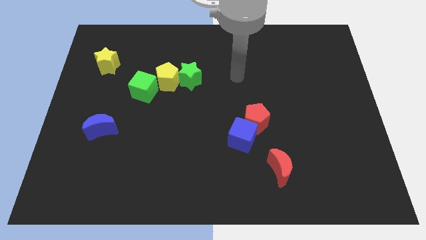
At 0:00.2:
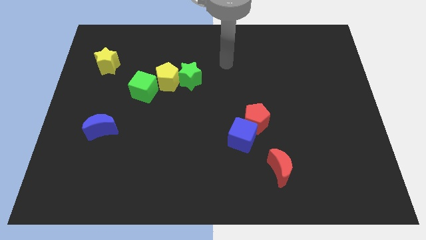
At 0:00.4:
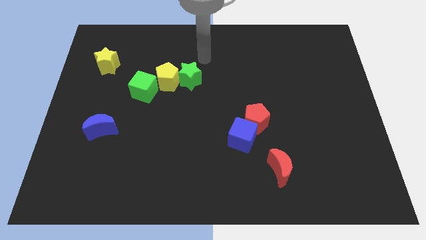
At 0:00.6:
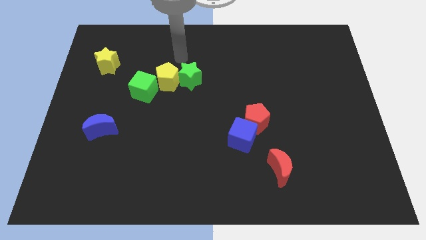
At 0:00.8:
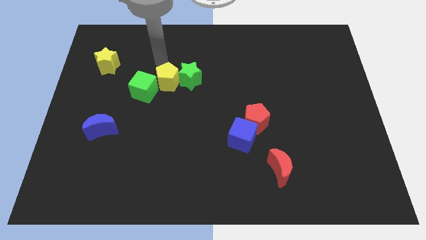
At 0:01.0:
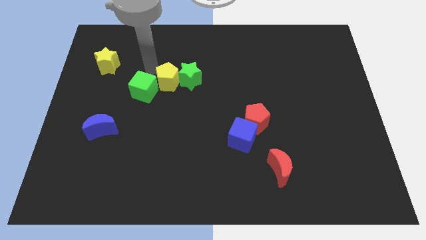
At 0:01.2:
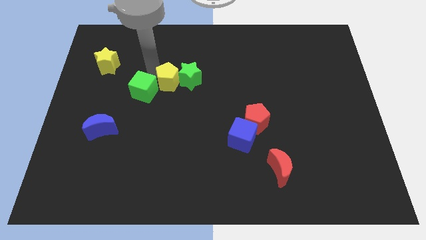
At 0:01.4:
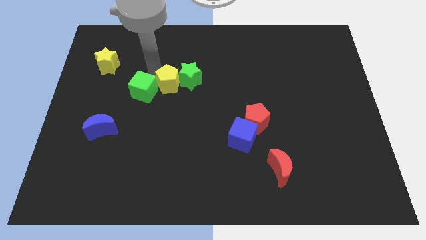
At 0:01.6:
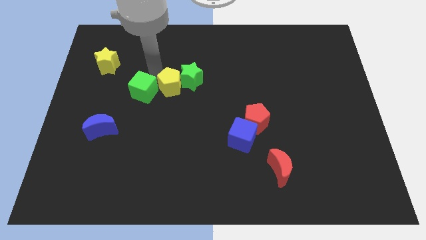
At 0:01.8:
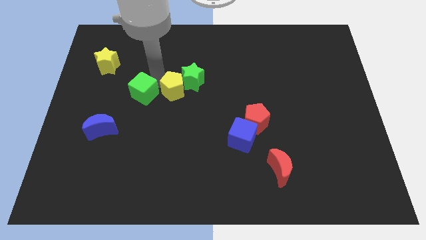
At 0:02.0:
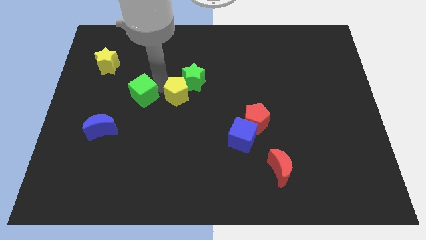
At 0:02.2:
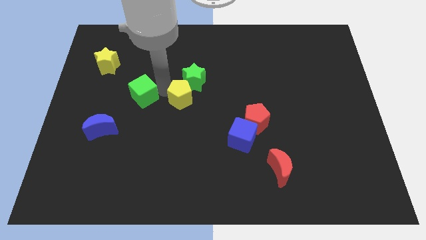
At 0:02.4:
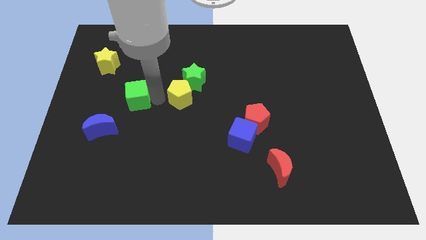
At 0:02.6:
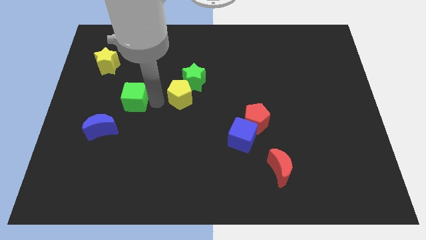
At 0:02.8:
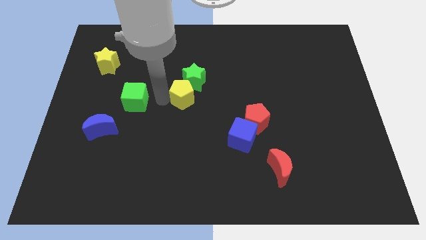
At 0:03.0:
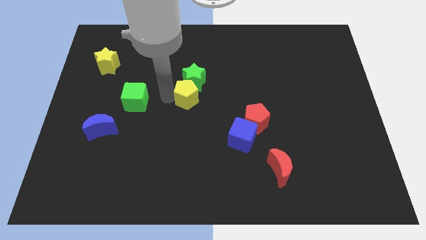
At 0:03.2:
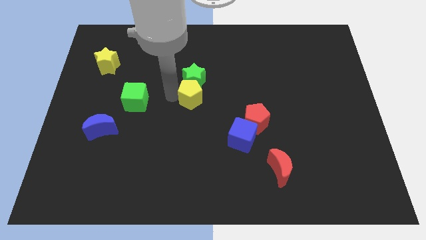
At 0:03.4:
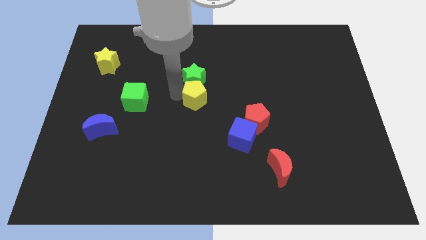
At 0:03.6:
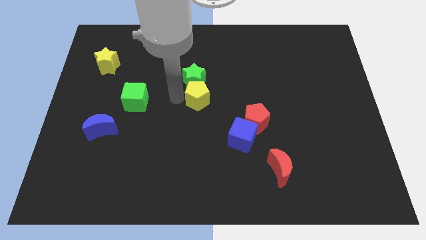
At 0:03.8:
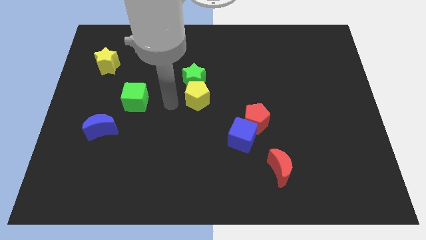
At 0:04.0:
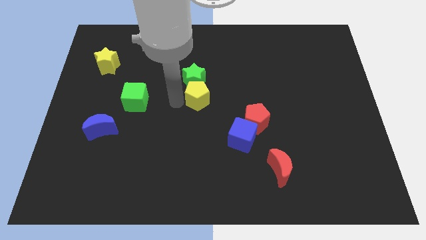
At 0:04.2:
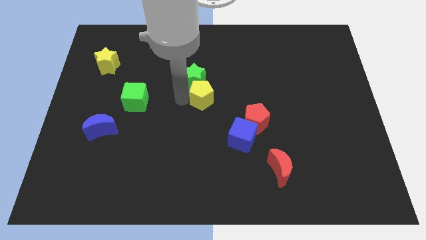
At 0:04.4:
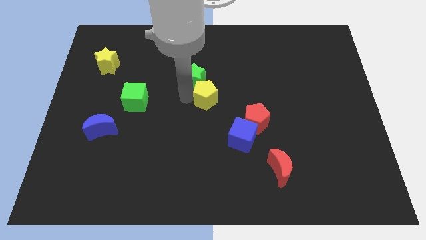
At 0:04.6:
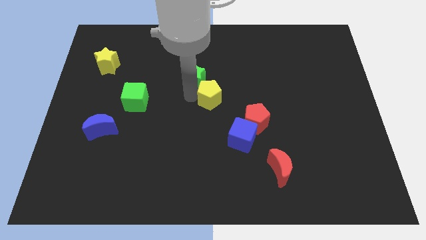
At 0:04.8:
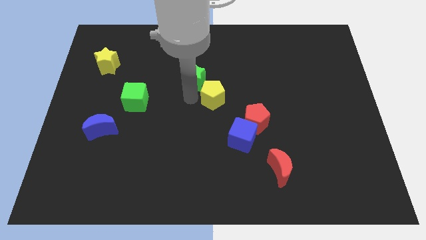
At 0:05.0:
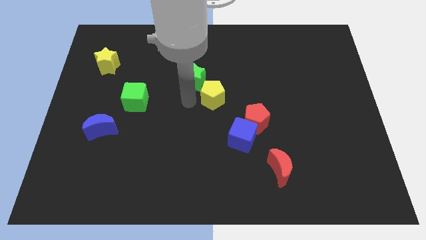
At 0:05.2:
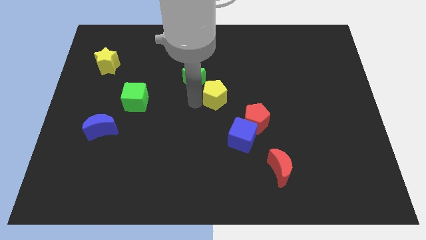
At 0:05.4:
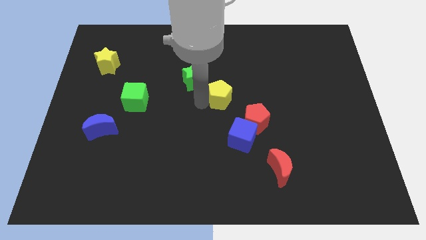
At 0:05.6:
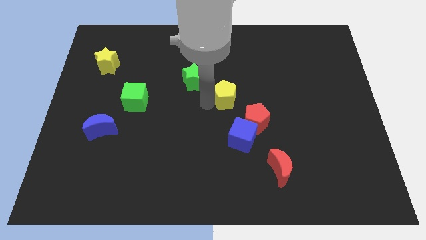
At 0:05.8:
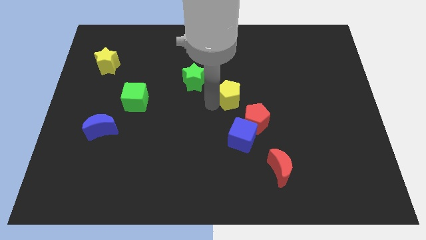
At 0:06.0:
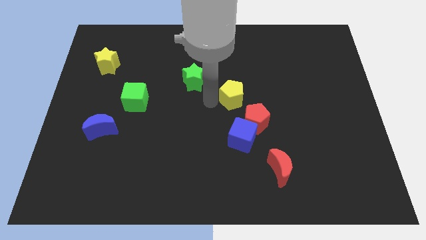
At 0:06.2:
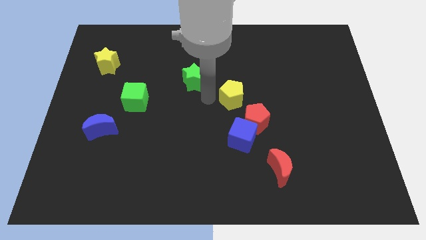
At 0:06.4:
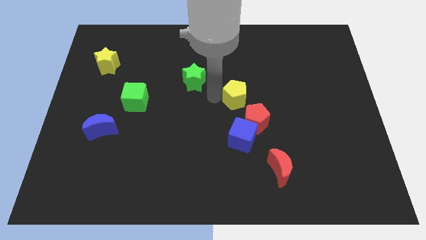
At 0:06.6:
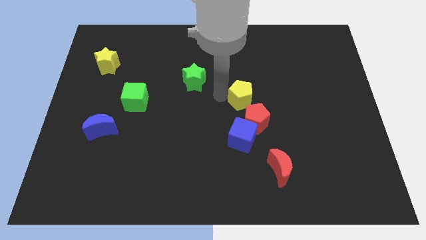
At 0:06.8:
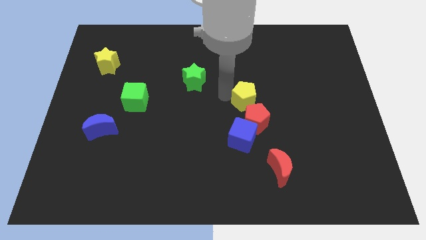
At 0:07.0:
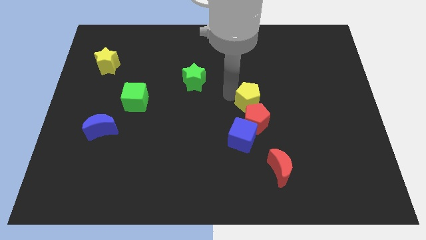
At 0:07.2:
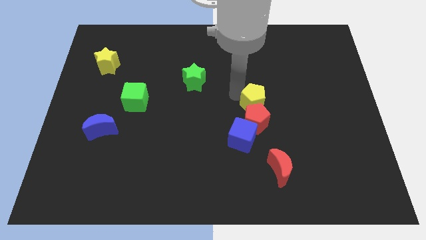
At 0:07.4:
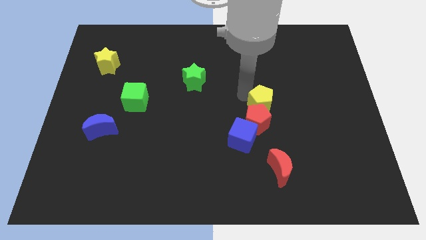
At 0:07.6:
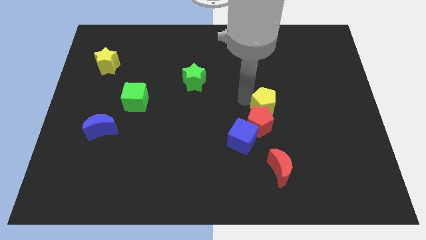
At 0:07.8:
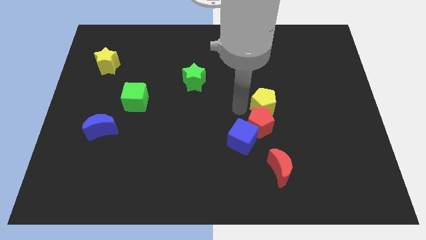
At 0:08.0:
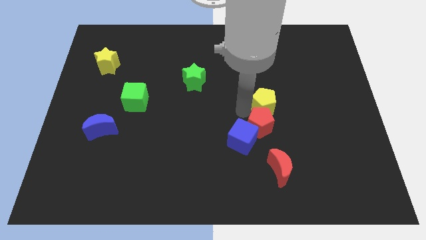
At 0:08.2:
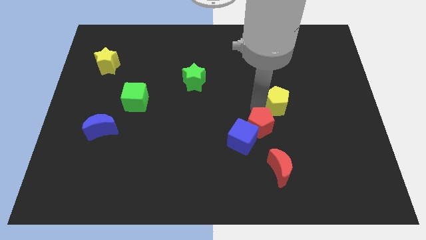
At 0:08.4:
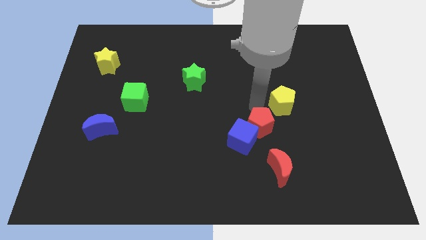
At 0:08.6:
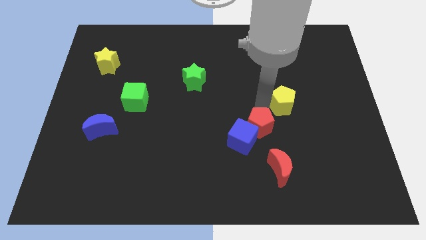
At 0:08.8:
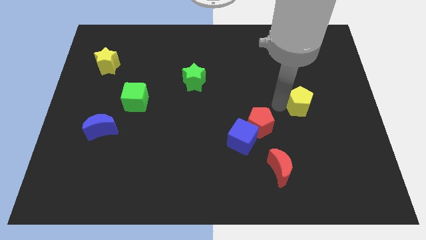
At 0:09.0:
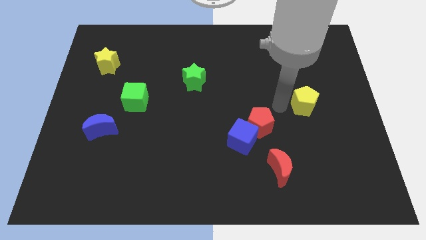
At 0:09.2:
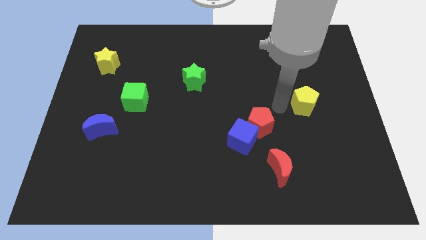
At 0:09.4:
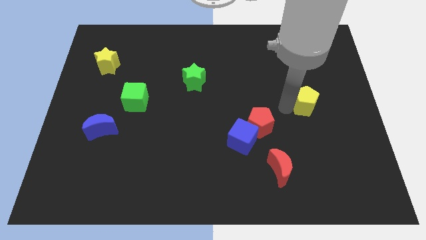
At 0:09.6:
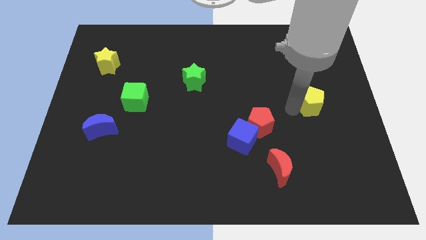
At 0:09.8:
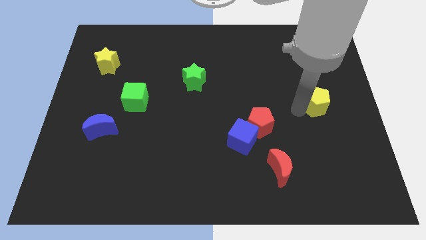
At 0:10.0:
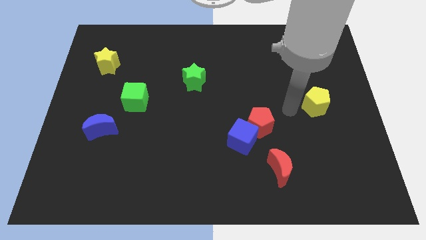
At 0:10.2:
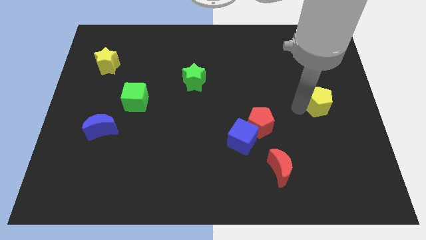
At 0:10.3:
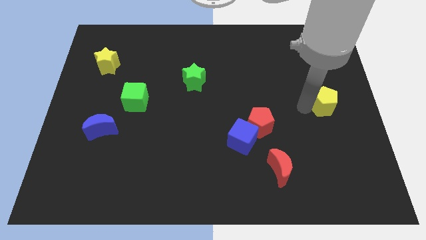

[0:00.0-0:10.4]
put the yellow pentagon to the center right

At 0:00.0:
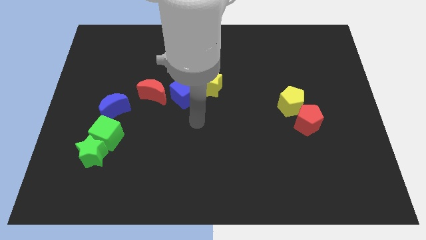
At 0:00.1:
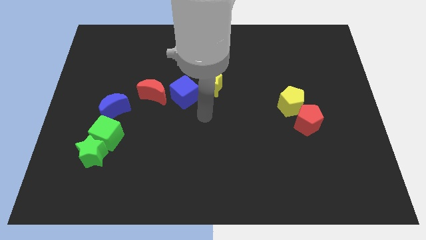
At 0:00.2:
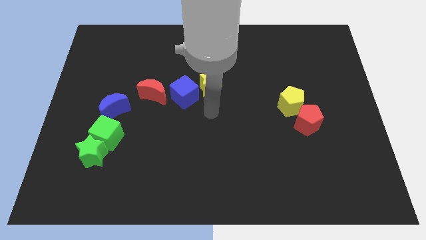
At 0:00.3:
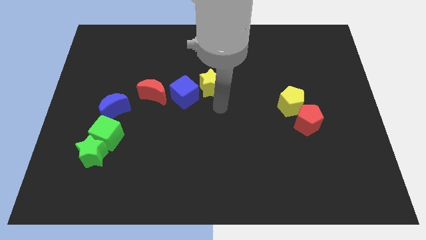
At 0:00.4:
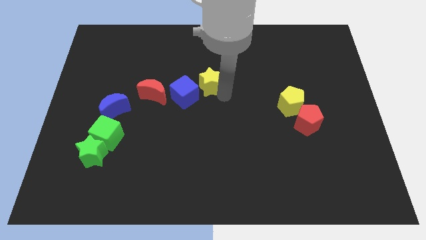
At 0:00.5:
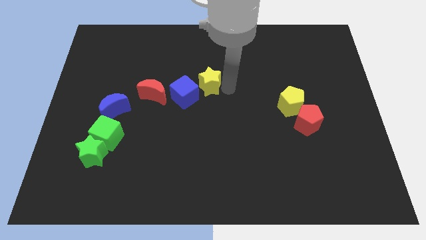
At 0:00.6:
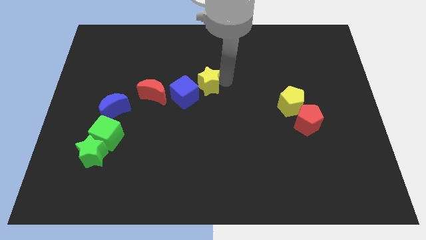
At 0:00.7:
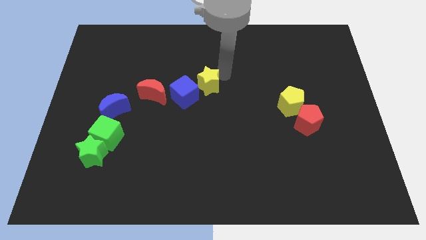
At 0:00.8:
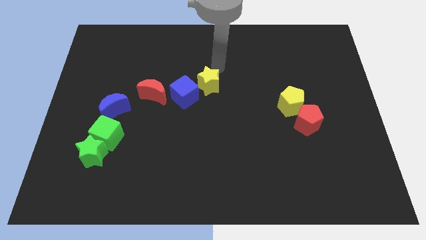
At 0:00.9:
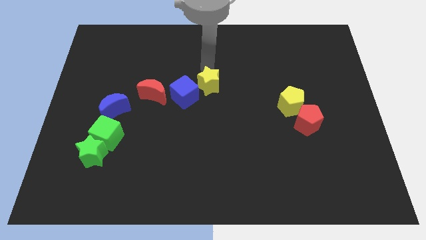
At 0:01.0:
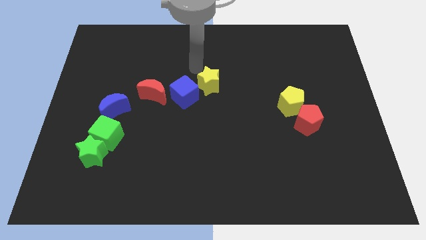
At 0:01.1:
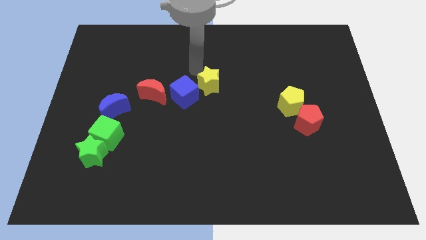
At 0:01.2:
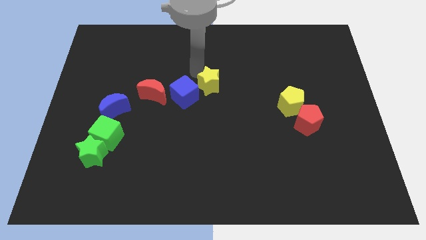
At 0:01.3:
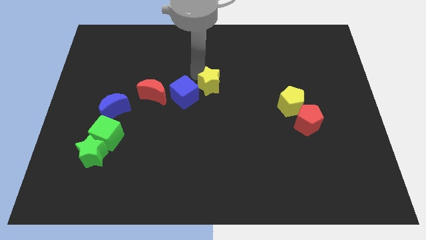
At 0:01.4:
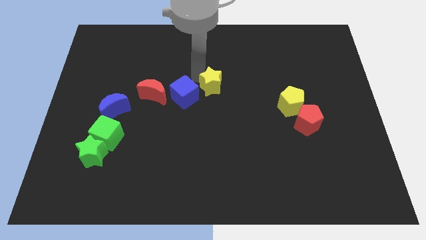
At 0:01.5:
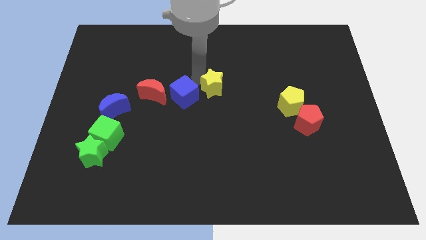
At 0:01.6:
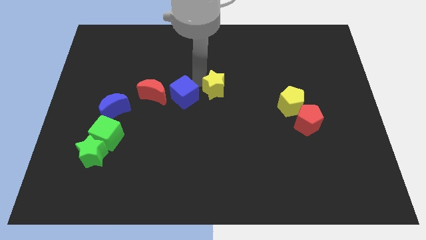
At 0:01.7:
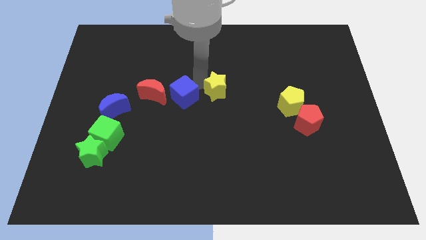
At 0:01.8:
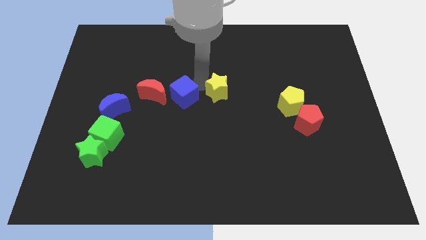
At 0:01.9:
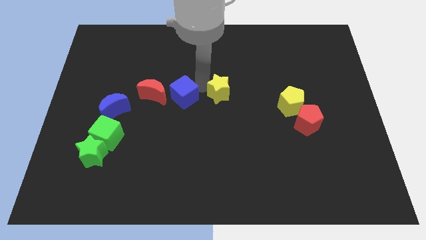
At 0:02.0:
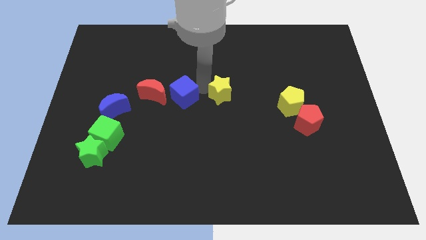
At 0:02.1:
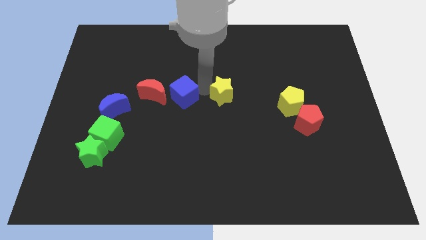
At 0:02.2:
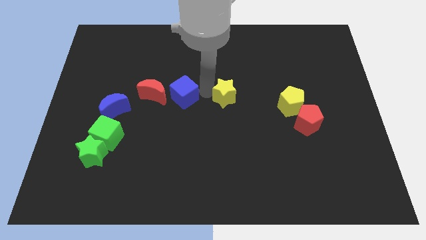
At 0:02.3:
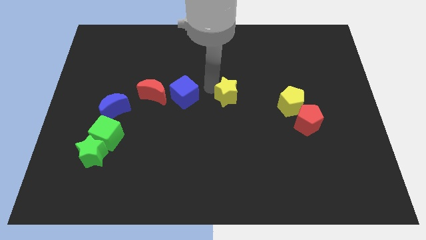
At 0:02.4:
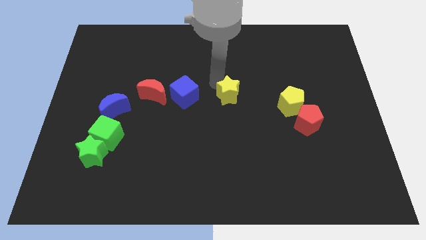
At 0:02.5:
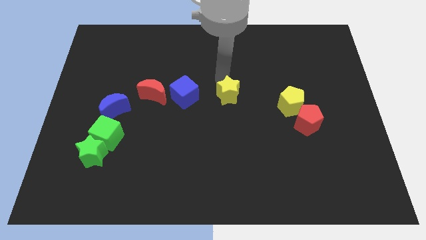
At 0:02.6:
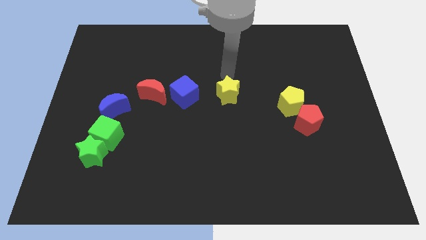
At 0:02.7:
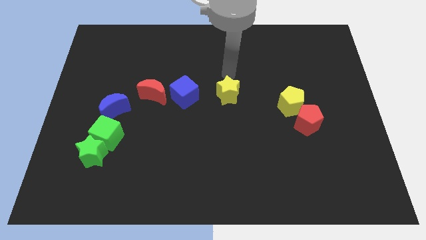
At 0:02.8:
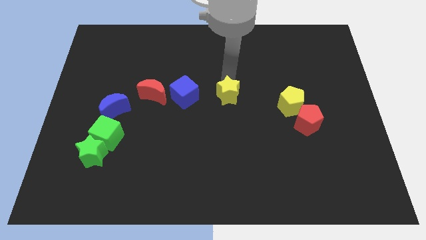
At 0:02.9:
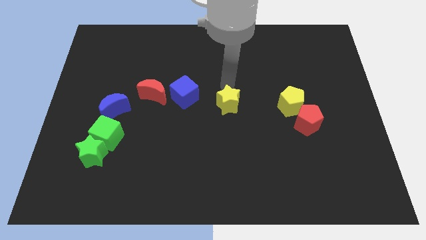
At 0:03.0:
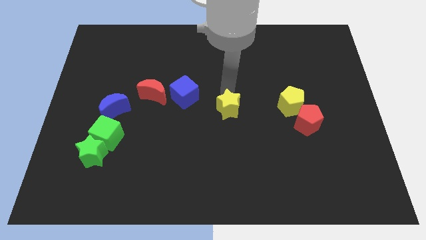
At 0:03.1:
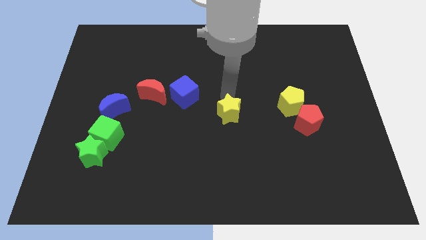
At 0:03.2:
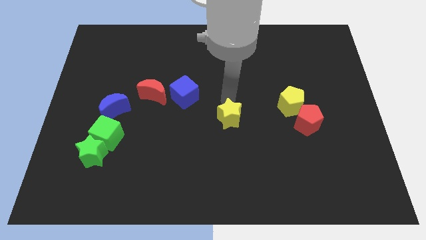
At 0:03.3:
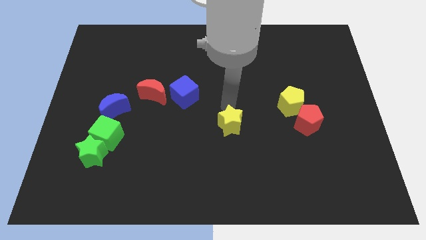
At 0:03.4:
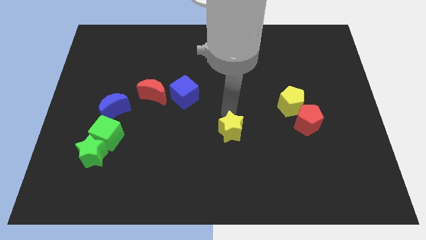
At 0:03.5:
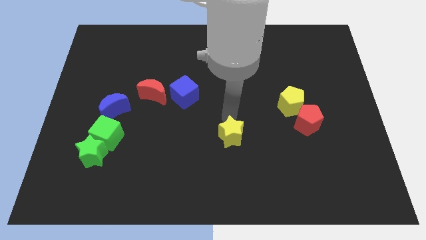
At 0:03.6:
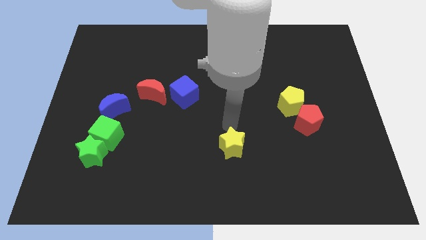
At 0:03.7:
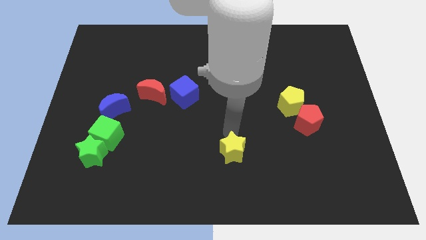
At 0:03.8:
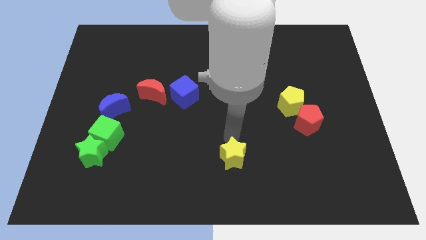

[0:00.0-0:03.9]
push the yellow star to the bottom side
